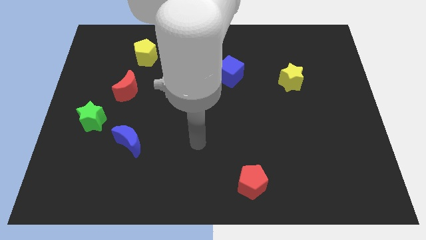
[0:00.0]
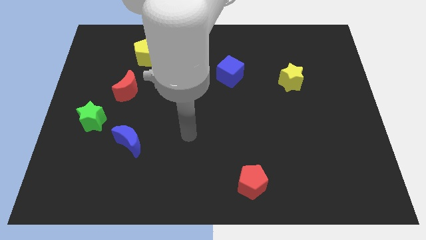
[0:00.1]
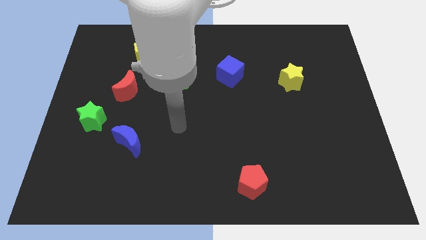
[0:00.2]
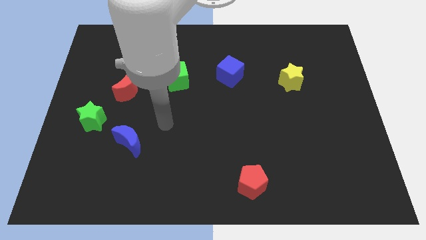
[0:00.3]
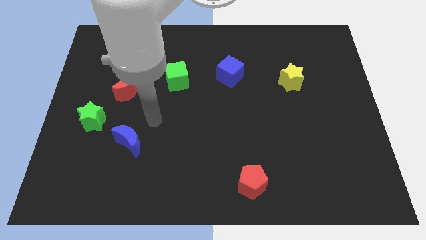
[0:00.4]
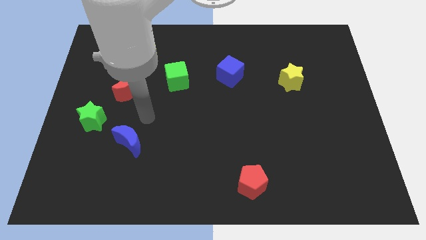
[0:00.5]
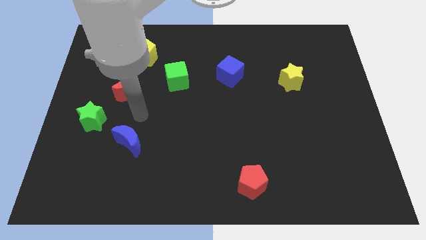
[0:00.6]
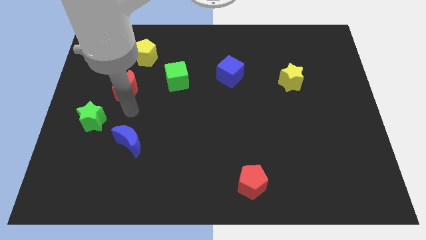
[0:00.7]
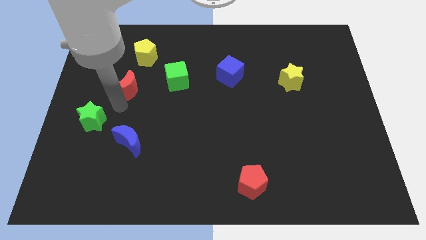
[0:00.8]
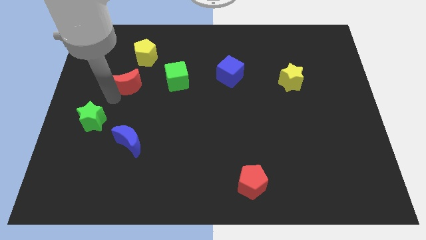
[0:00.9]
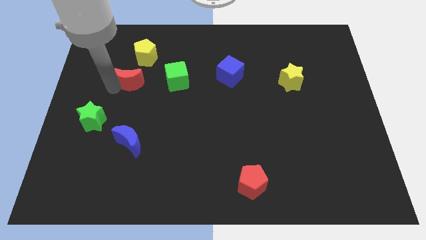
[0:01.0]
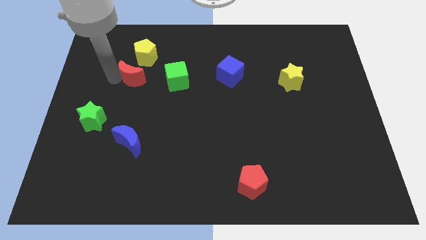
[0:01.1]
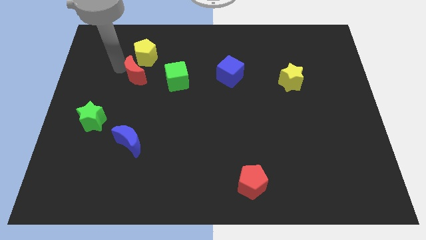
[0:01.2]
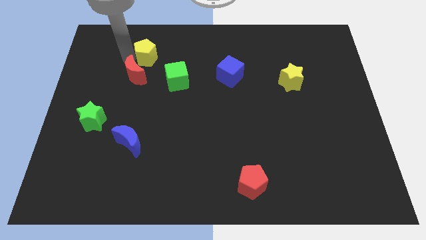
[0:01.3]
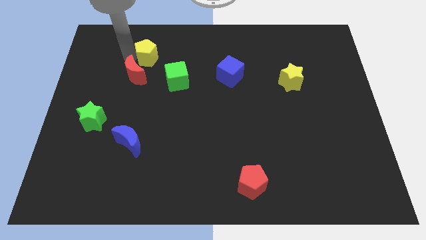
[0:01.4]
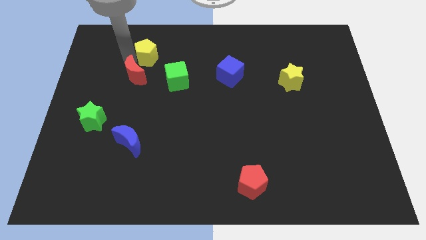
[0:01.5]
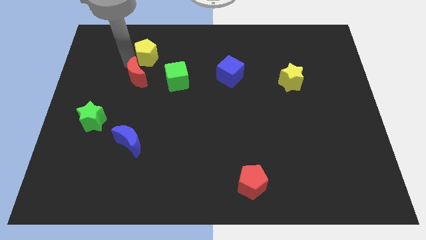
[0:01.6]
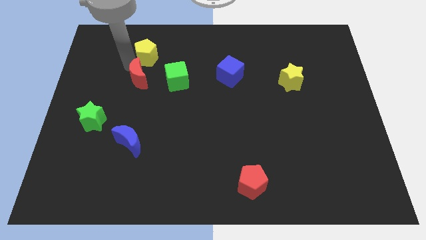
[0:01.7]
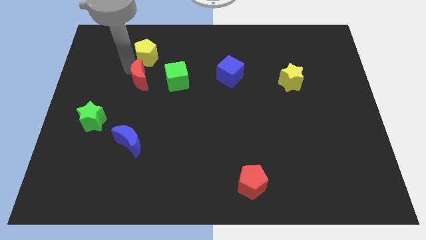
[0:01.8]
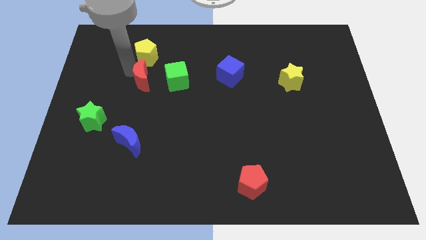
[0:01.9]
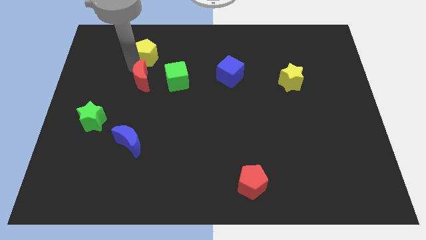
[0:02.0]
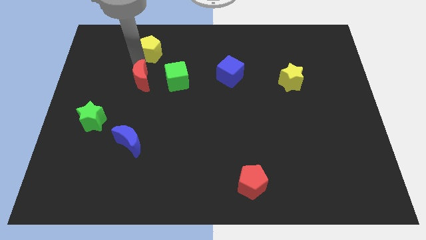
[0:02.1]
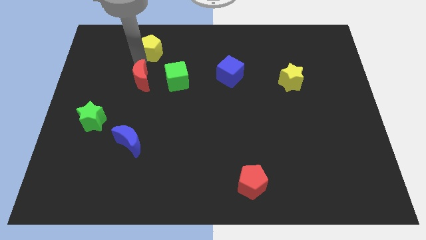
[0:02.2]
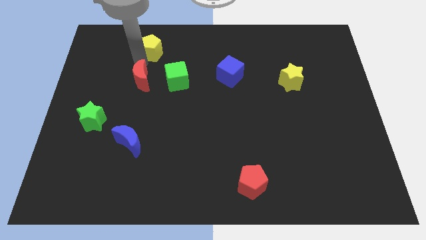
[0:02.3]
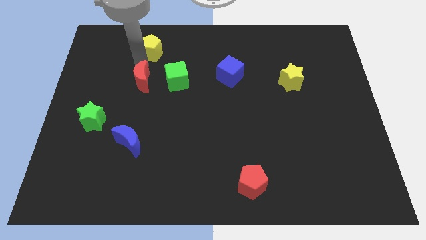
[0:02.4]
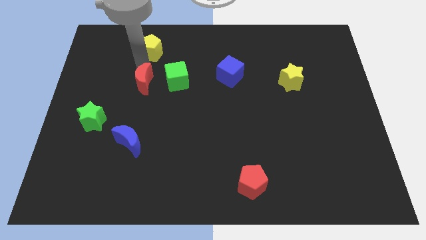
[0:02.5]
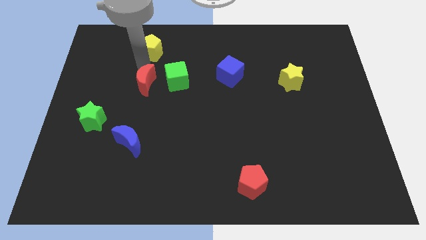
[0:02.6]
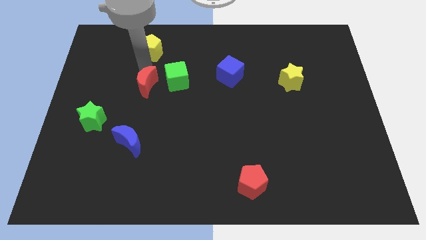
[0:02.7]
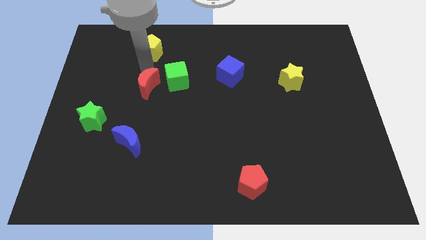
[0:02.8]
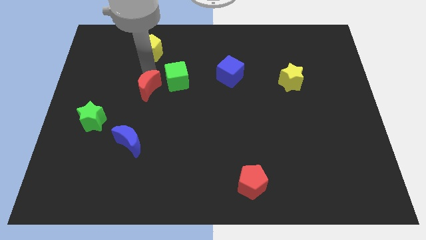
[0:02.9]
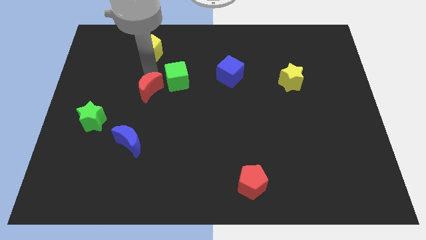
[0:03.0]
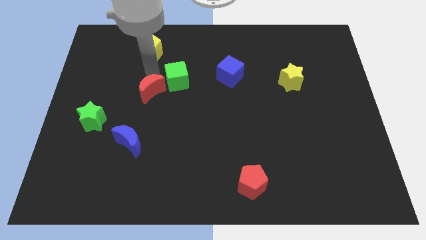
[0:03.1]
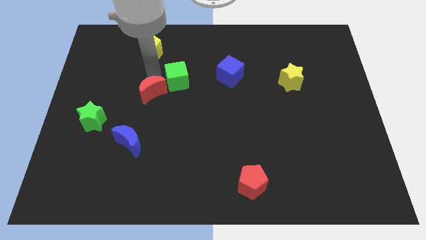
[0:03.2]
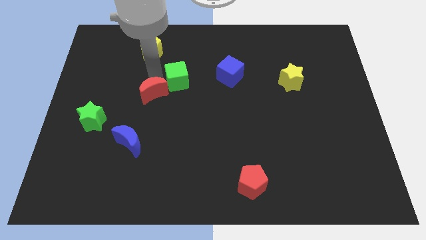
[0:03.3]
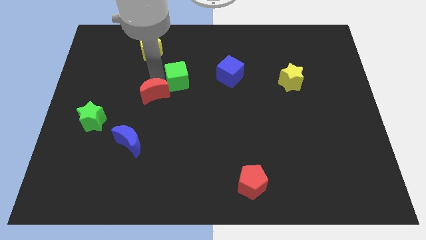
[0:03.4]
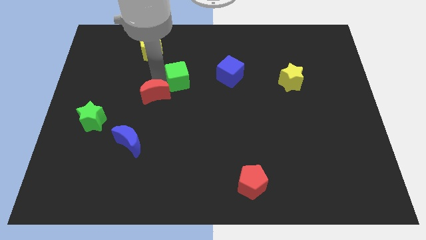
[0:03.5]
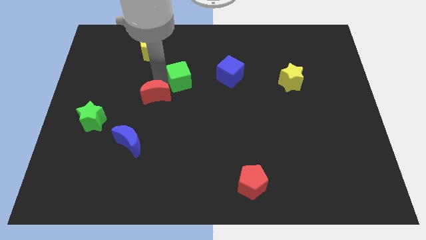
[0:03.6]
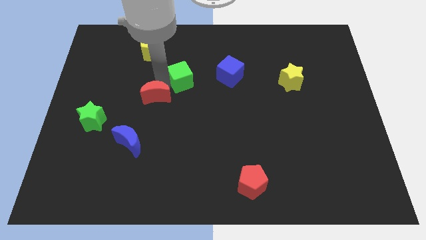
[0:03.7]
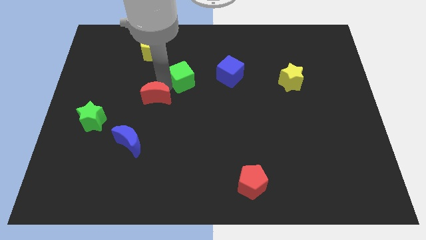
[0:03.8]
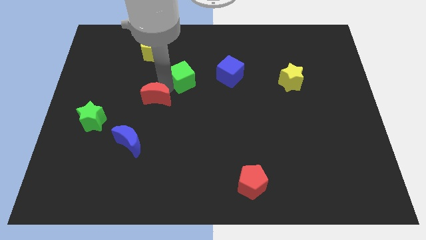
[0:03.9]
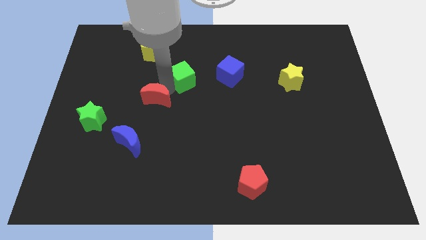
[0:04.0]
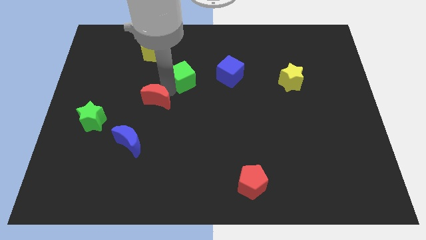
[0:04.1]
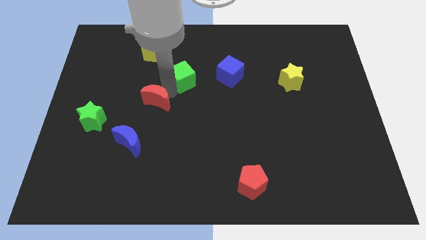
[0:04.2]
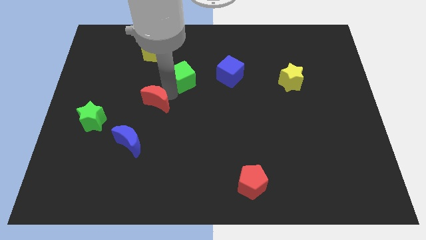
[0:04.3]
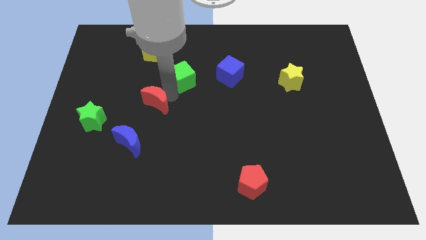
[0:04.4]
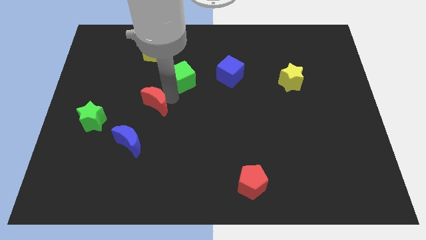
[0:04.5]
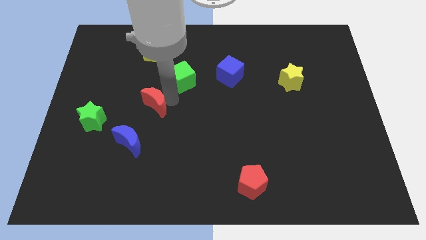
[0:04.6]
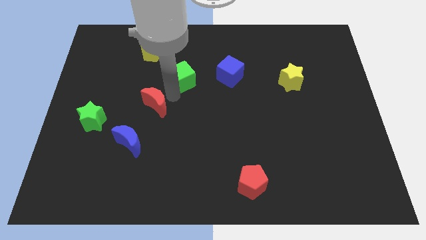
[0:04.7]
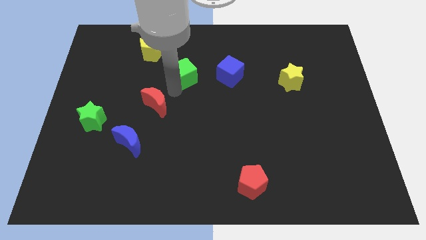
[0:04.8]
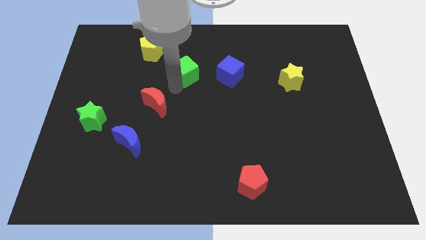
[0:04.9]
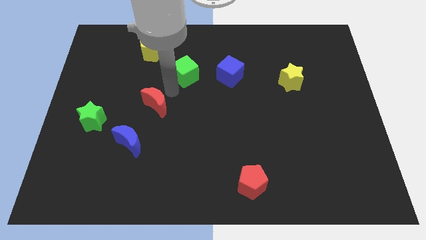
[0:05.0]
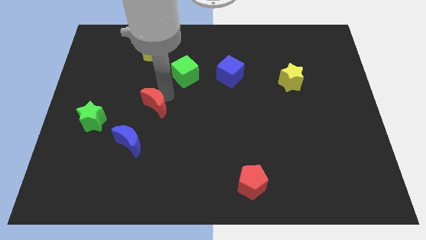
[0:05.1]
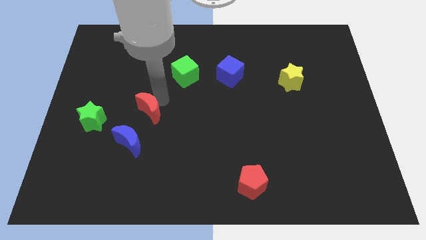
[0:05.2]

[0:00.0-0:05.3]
put the red moon to the right of the green star

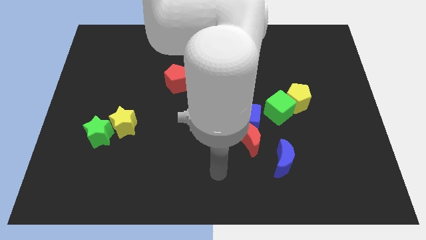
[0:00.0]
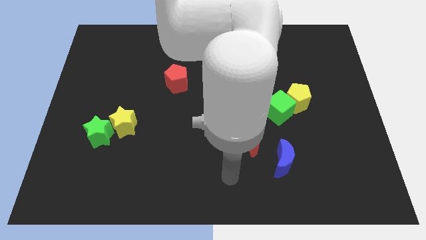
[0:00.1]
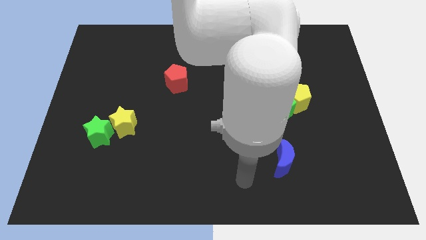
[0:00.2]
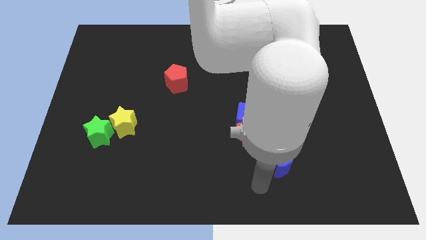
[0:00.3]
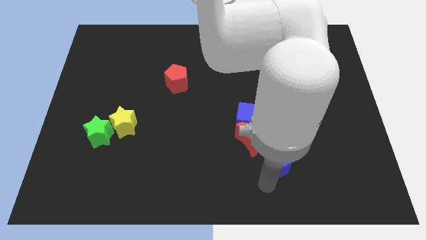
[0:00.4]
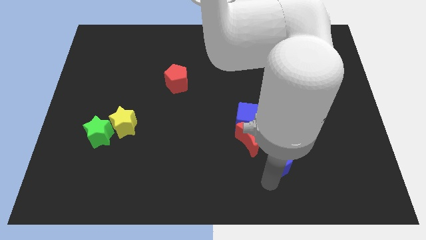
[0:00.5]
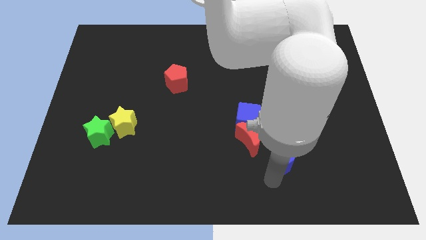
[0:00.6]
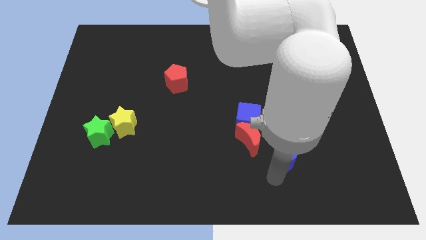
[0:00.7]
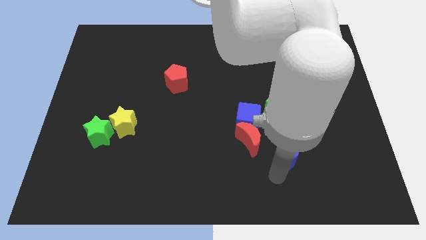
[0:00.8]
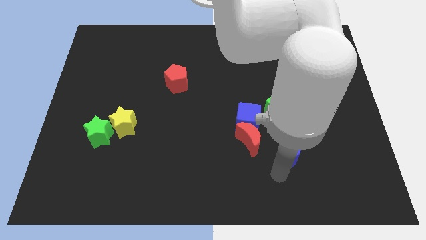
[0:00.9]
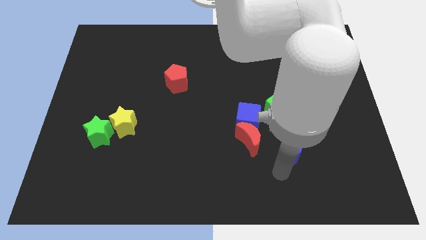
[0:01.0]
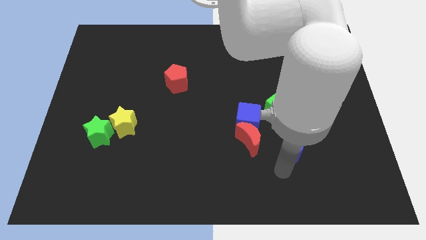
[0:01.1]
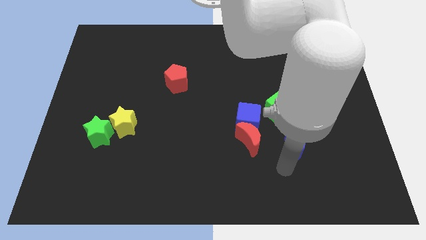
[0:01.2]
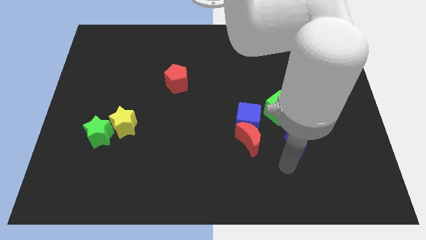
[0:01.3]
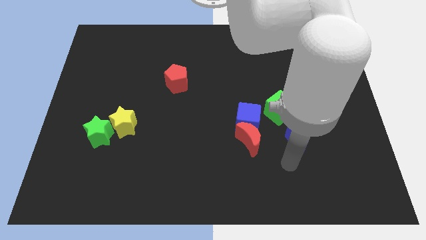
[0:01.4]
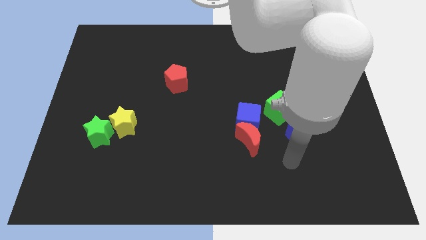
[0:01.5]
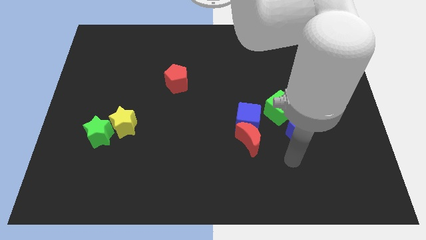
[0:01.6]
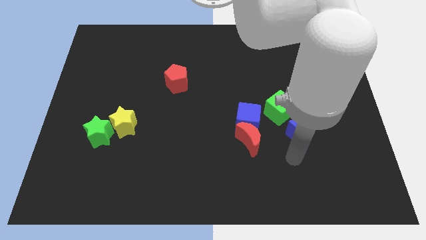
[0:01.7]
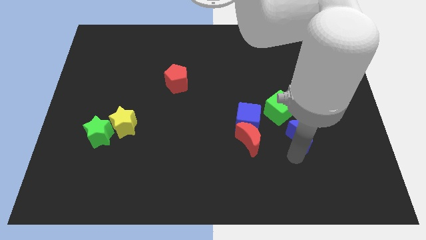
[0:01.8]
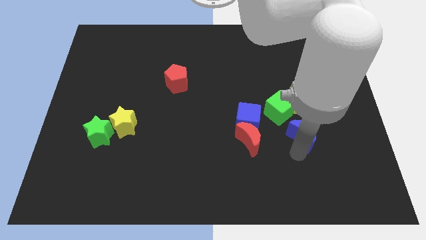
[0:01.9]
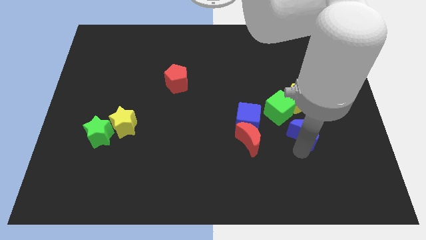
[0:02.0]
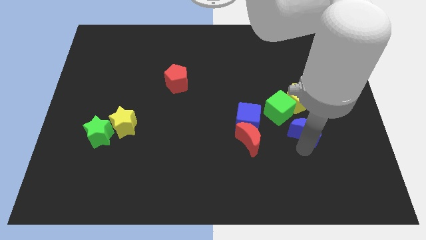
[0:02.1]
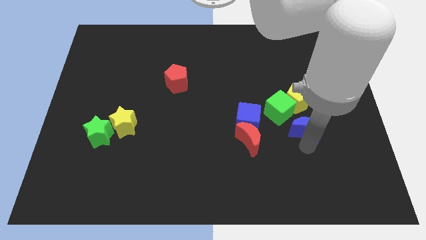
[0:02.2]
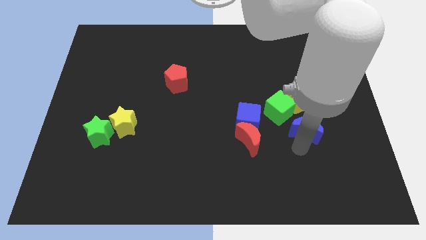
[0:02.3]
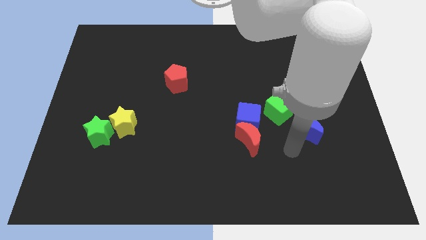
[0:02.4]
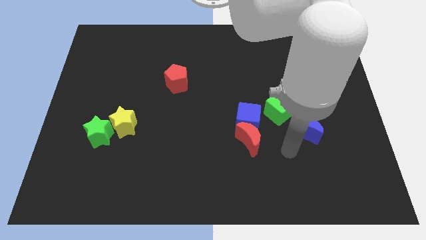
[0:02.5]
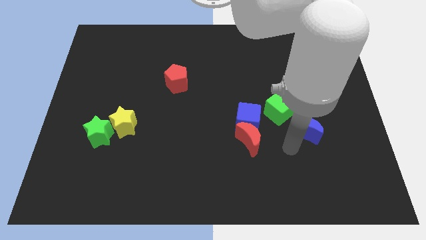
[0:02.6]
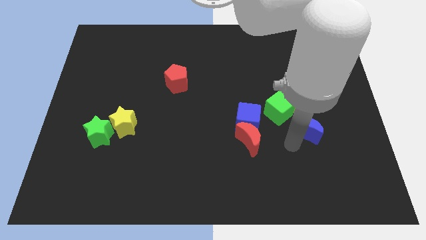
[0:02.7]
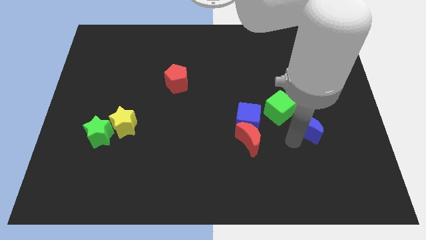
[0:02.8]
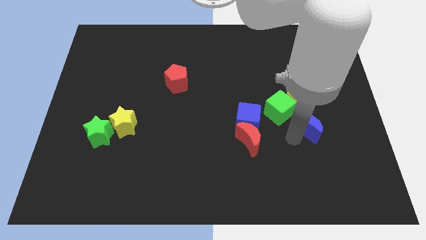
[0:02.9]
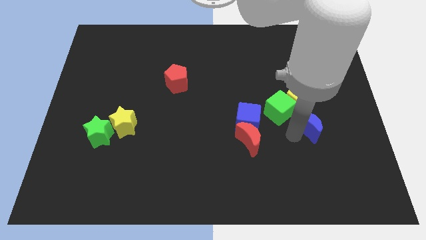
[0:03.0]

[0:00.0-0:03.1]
put the blue moon to the right side of the green cube
